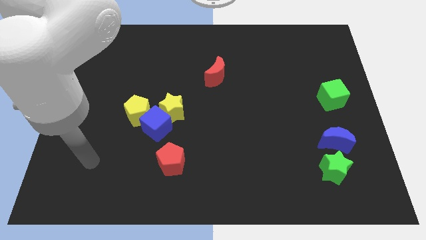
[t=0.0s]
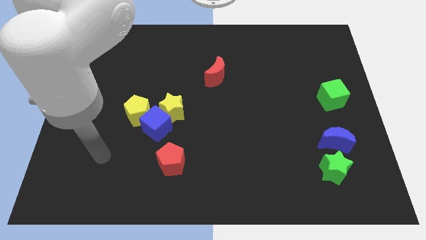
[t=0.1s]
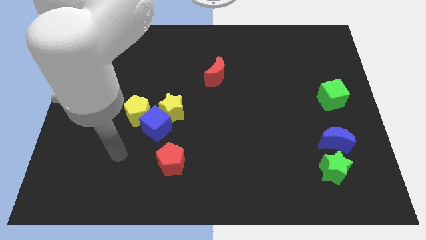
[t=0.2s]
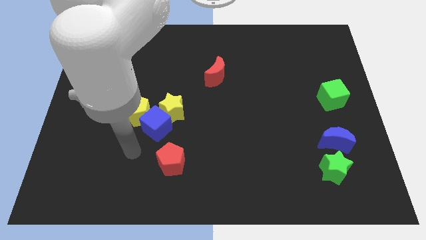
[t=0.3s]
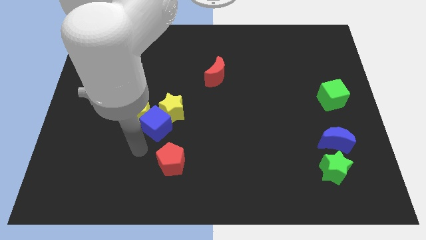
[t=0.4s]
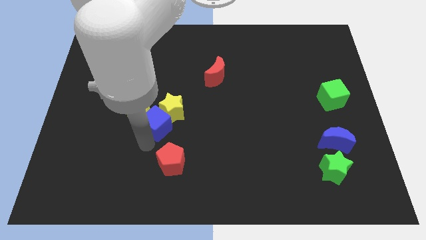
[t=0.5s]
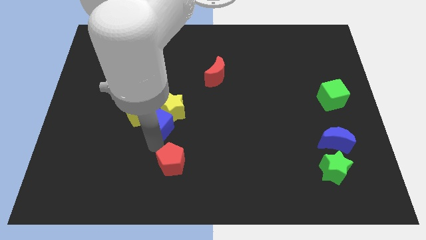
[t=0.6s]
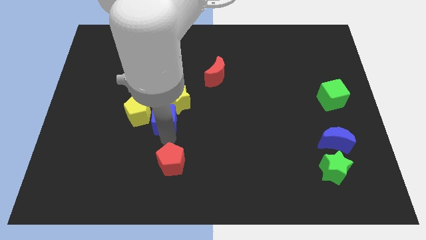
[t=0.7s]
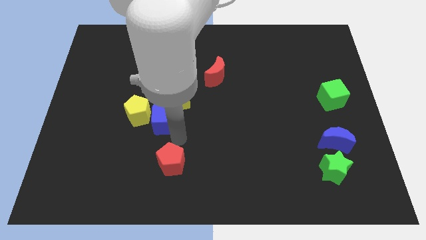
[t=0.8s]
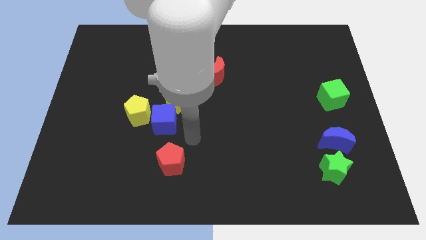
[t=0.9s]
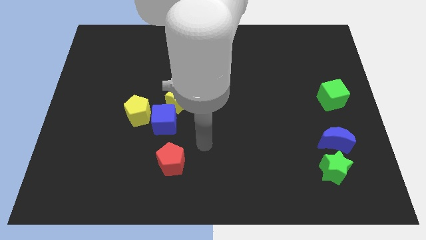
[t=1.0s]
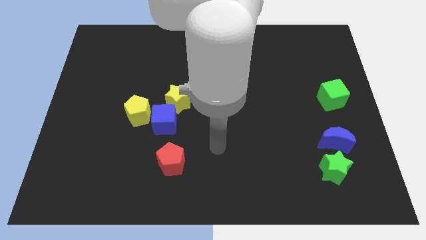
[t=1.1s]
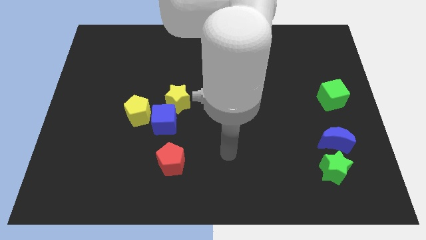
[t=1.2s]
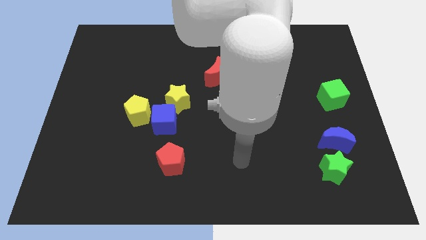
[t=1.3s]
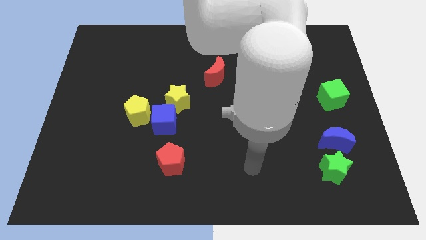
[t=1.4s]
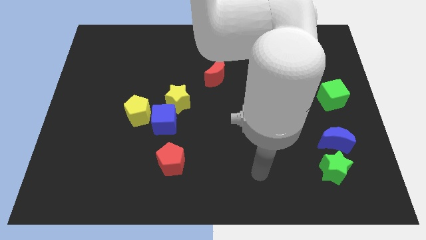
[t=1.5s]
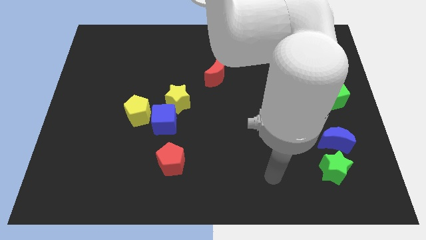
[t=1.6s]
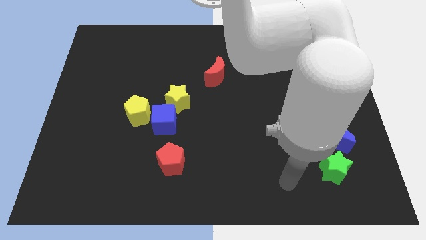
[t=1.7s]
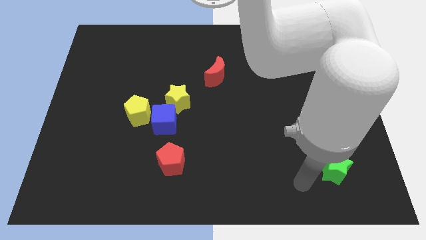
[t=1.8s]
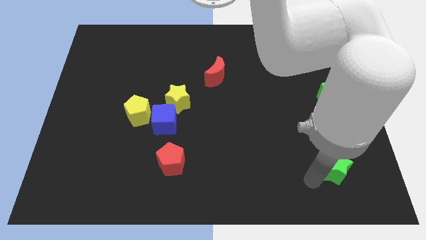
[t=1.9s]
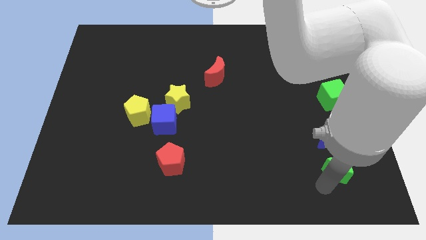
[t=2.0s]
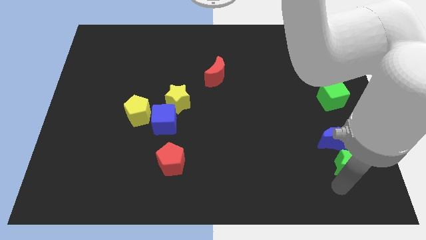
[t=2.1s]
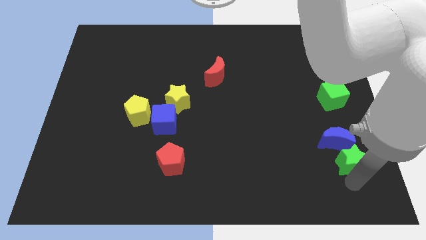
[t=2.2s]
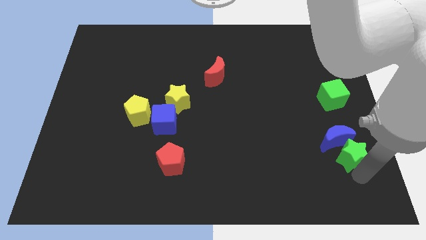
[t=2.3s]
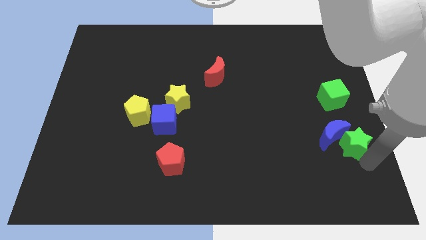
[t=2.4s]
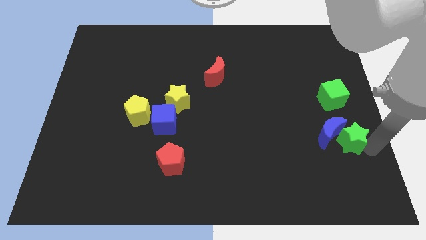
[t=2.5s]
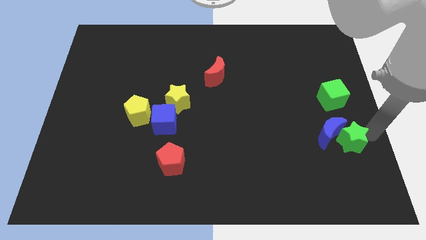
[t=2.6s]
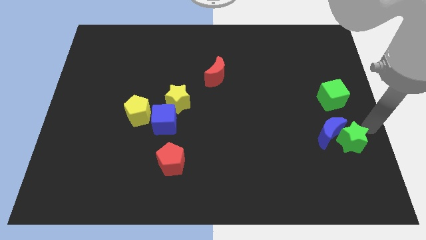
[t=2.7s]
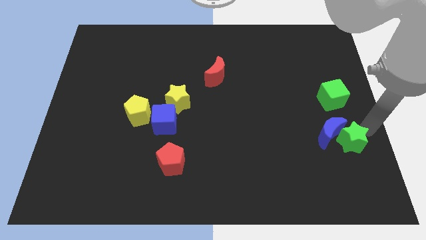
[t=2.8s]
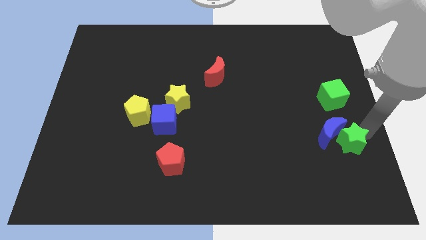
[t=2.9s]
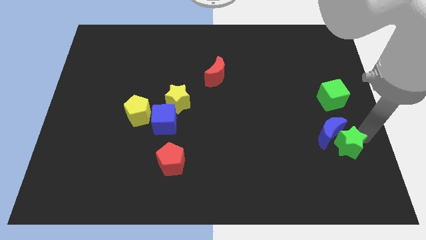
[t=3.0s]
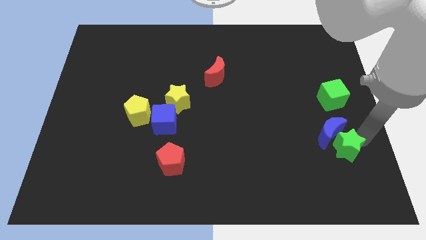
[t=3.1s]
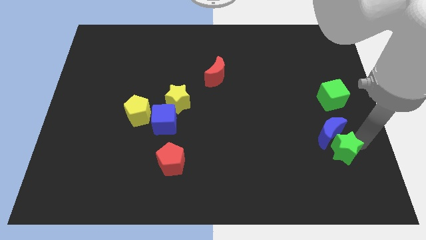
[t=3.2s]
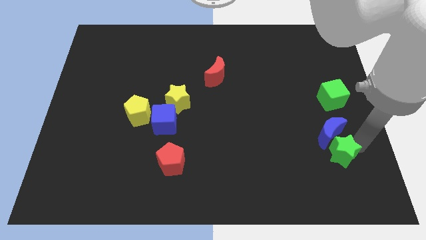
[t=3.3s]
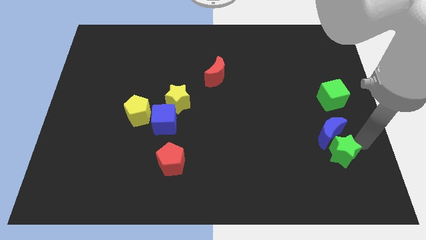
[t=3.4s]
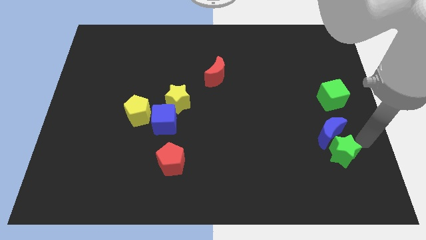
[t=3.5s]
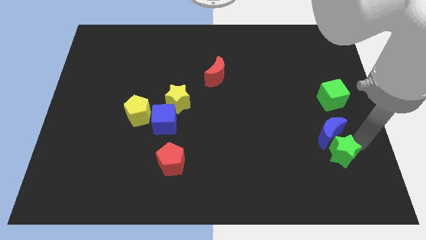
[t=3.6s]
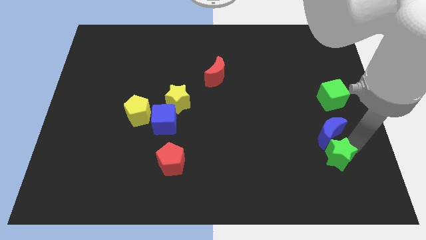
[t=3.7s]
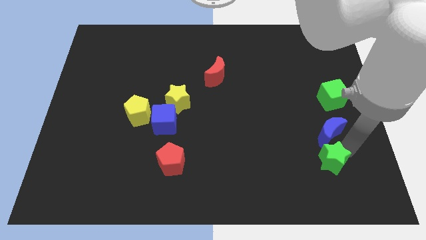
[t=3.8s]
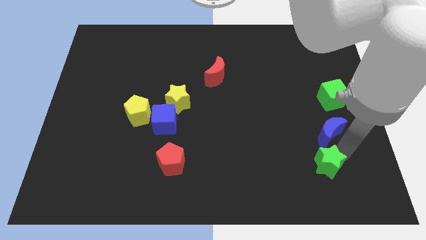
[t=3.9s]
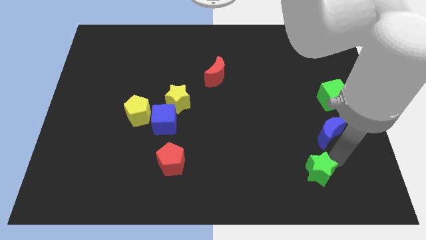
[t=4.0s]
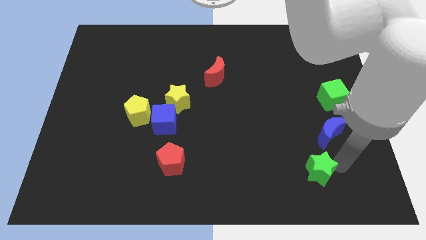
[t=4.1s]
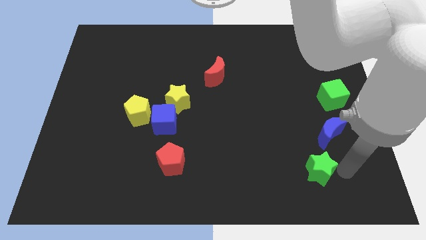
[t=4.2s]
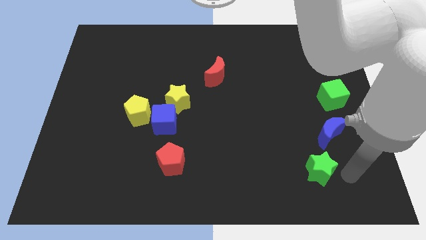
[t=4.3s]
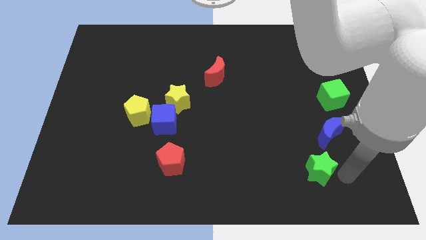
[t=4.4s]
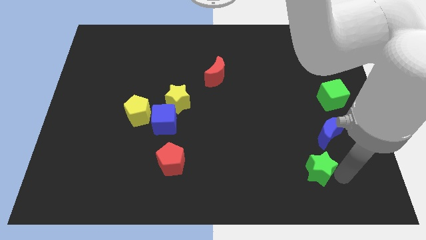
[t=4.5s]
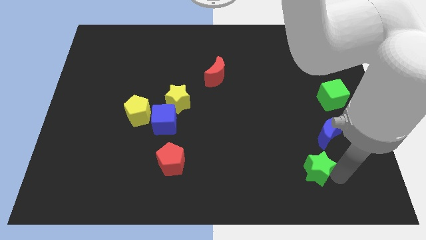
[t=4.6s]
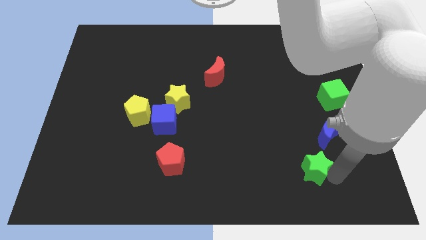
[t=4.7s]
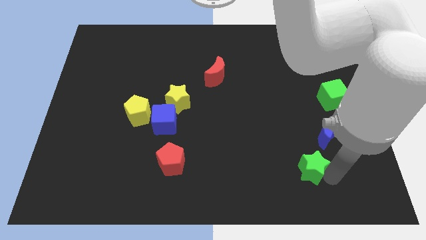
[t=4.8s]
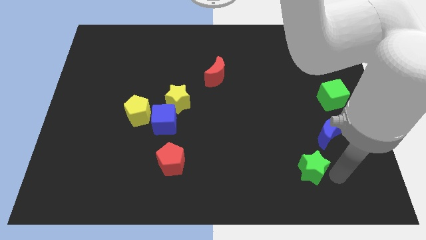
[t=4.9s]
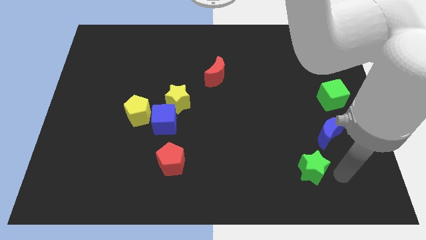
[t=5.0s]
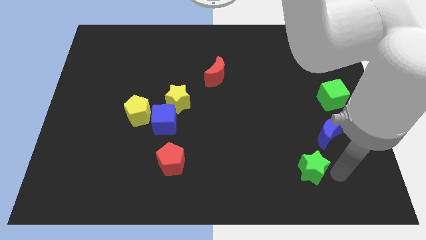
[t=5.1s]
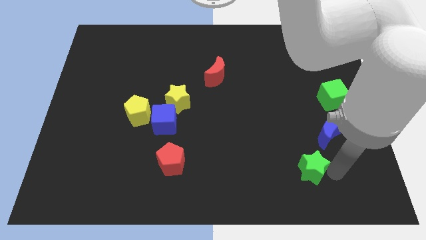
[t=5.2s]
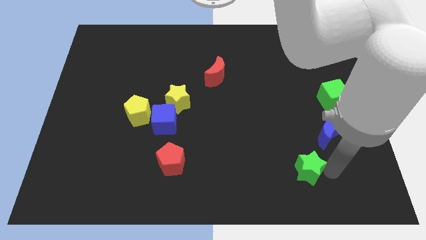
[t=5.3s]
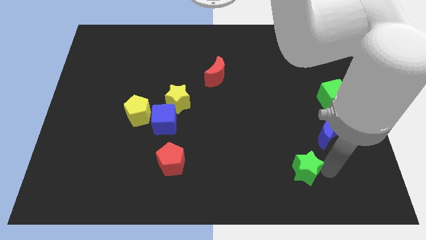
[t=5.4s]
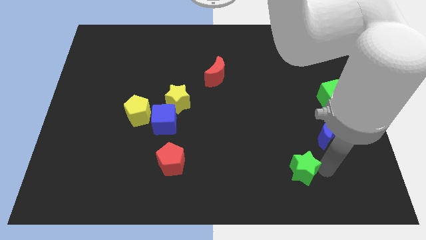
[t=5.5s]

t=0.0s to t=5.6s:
slightly slide the green star to the left

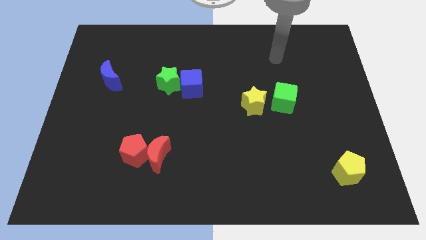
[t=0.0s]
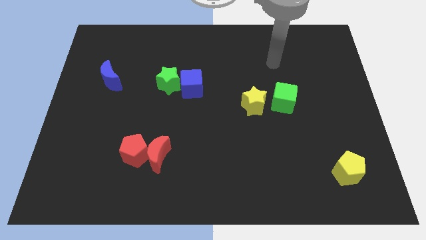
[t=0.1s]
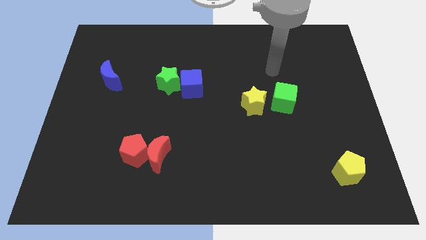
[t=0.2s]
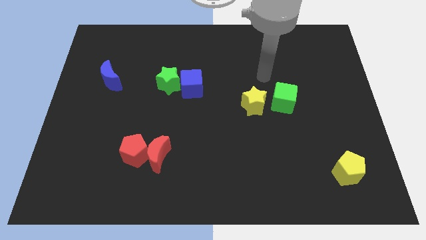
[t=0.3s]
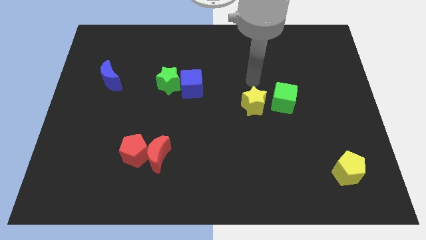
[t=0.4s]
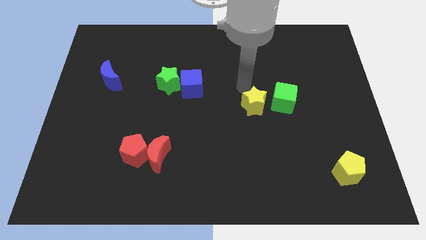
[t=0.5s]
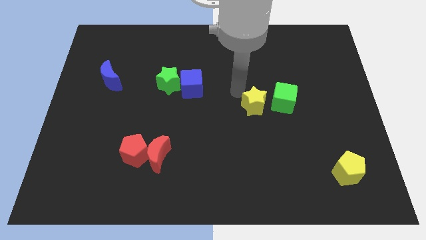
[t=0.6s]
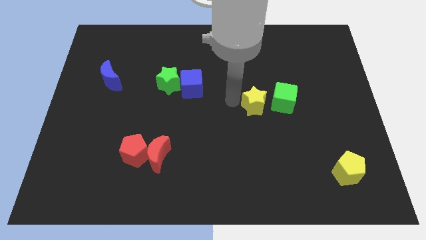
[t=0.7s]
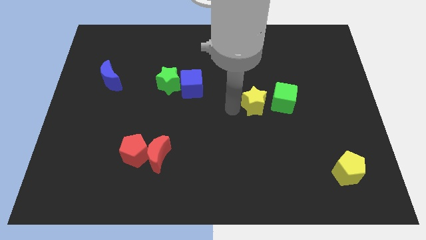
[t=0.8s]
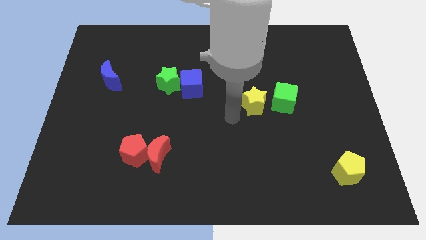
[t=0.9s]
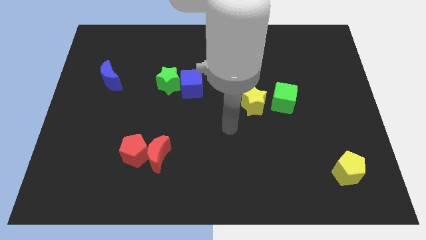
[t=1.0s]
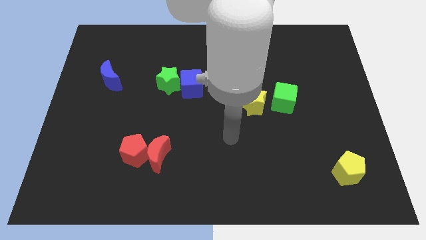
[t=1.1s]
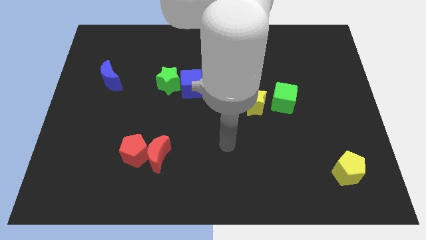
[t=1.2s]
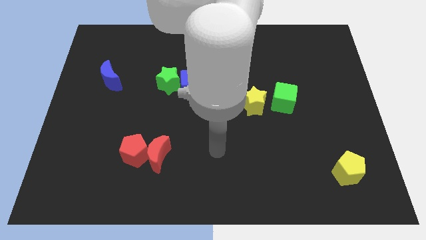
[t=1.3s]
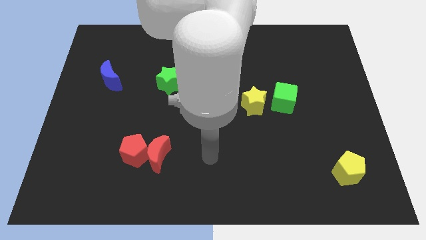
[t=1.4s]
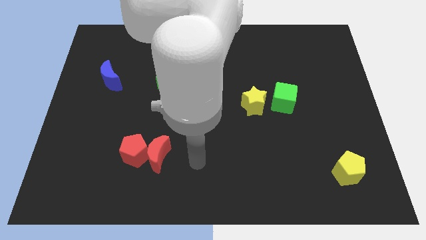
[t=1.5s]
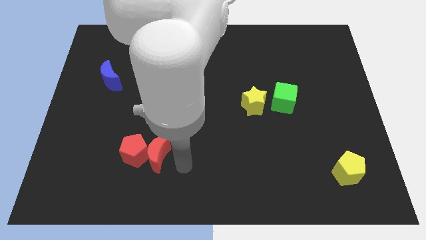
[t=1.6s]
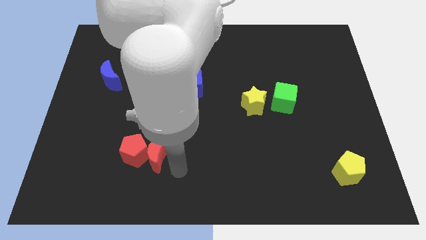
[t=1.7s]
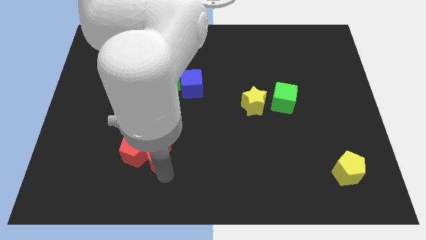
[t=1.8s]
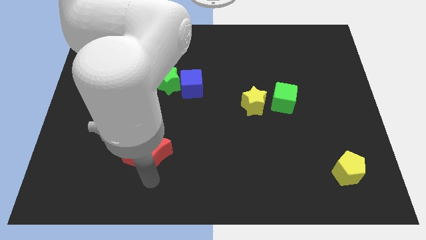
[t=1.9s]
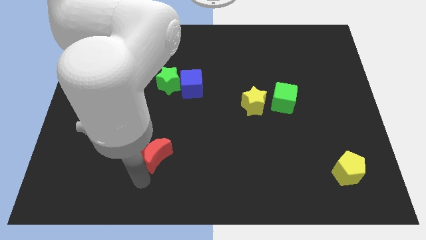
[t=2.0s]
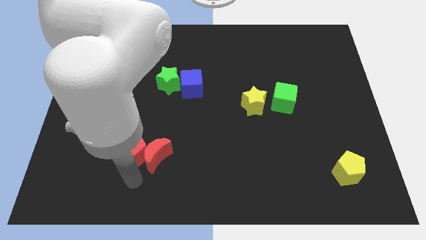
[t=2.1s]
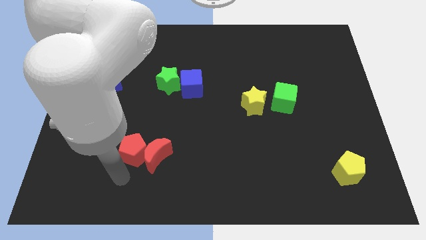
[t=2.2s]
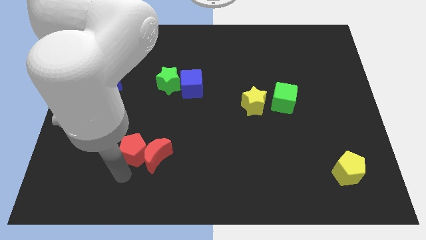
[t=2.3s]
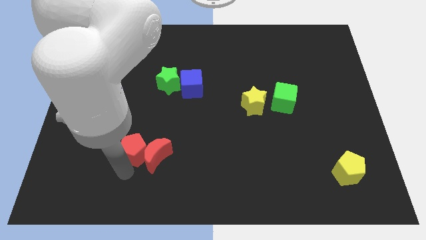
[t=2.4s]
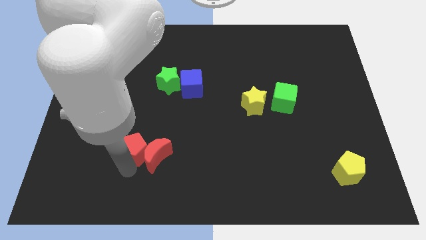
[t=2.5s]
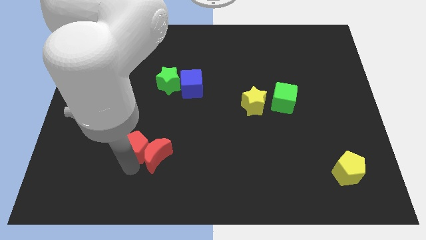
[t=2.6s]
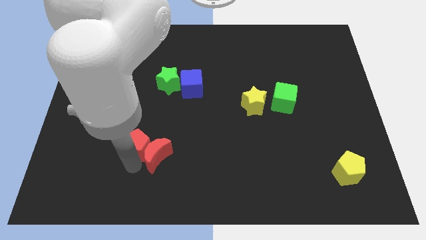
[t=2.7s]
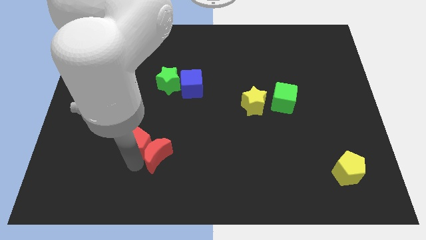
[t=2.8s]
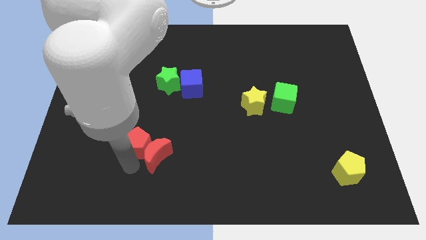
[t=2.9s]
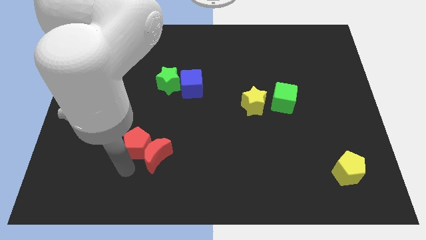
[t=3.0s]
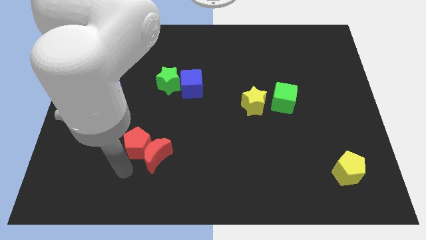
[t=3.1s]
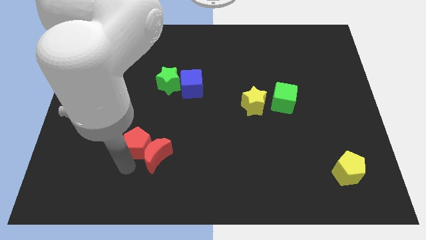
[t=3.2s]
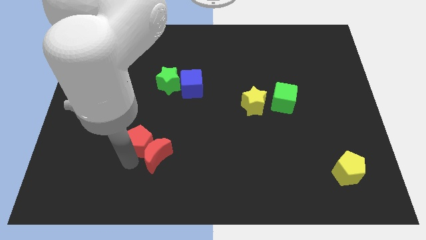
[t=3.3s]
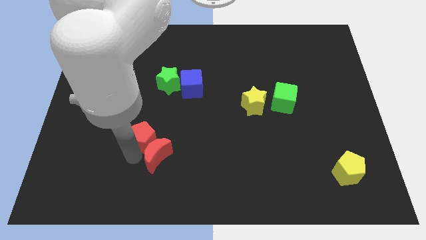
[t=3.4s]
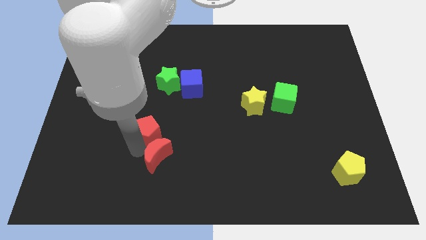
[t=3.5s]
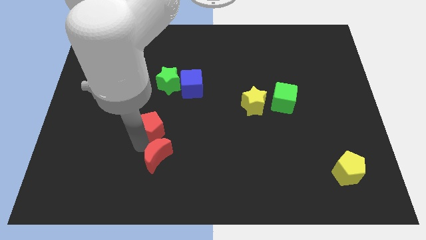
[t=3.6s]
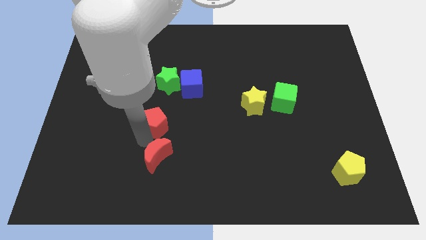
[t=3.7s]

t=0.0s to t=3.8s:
slide the red pentagon upwards and to the right a little bit
